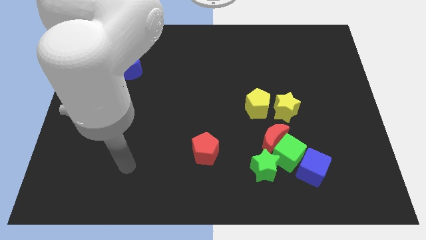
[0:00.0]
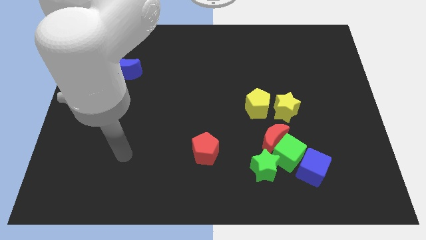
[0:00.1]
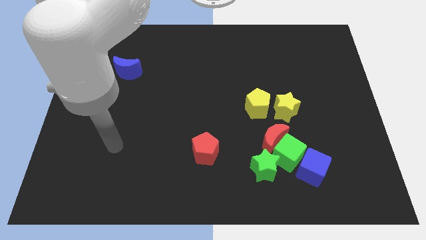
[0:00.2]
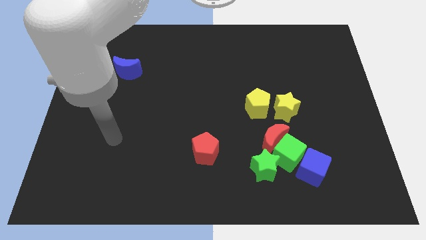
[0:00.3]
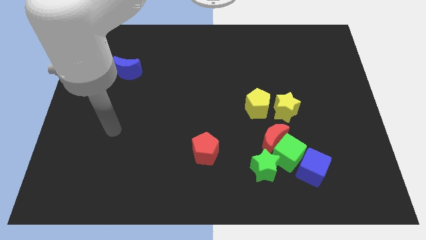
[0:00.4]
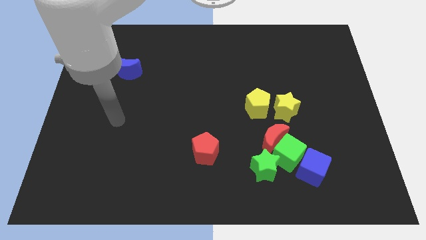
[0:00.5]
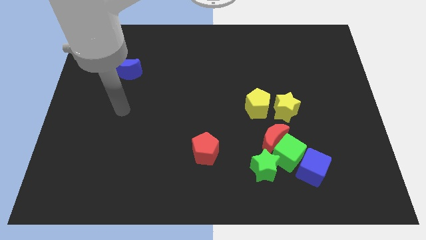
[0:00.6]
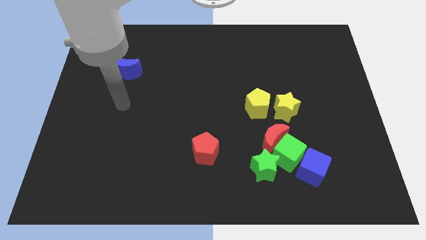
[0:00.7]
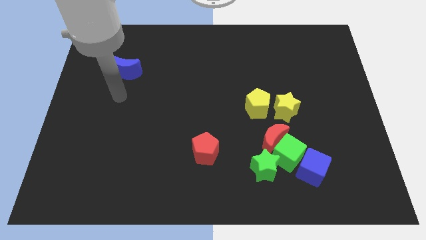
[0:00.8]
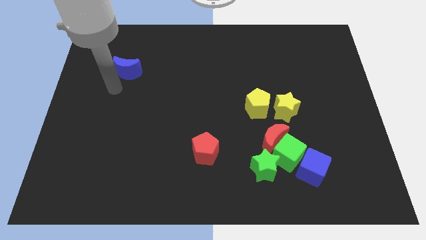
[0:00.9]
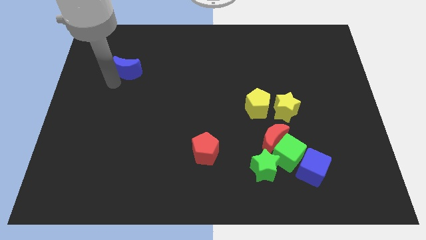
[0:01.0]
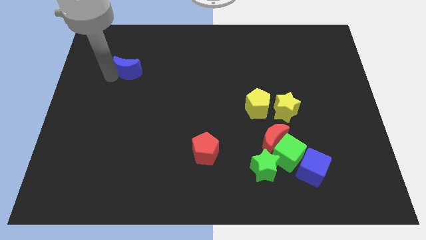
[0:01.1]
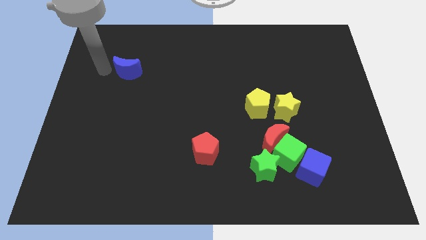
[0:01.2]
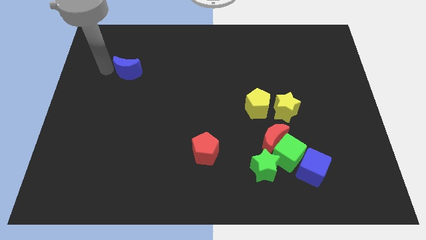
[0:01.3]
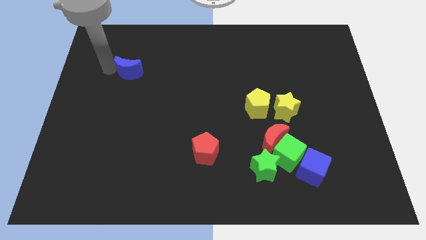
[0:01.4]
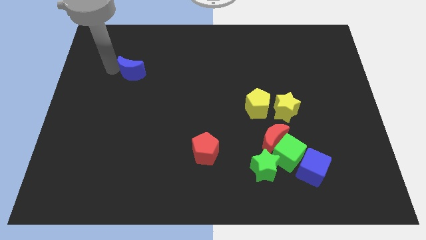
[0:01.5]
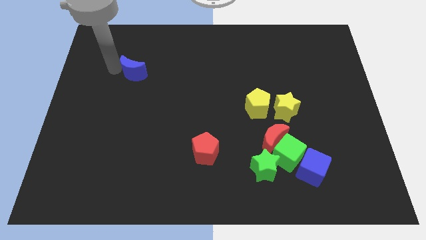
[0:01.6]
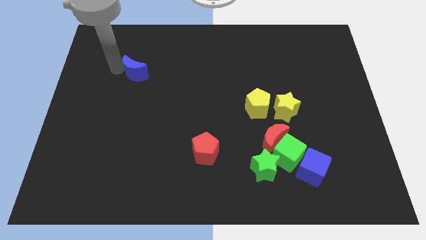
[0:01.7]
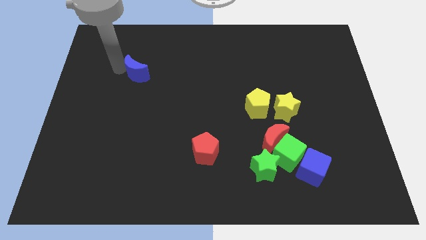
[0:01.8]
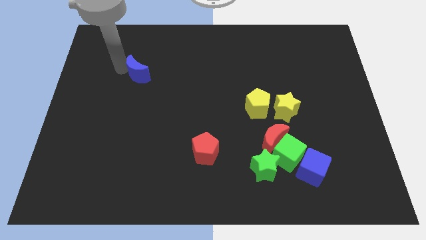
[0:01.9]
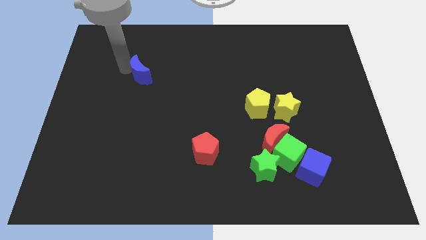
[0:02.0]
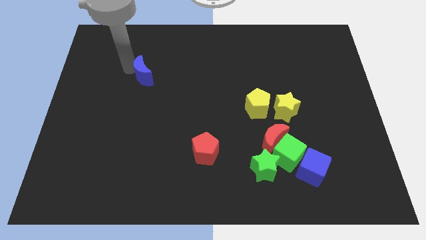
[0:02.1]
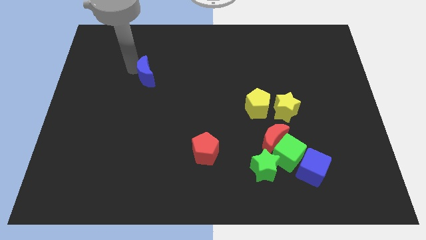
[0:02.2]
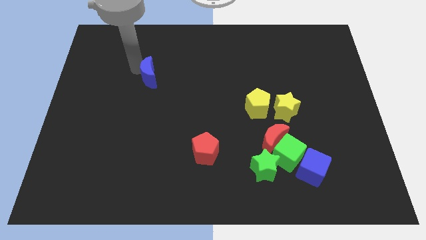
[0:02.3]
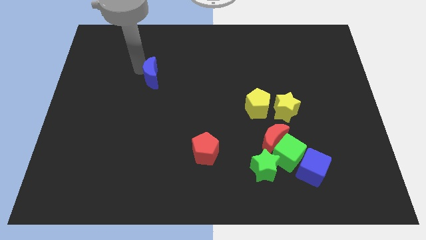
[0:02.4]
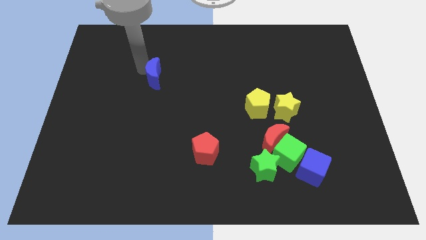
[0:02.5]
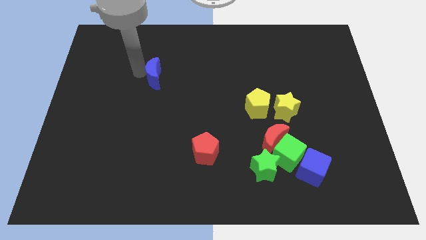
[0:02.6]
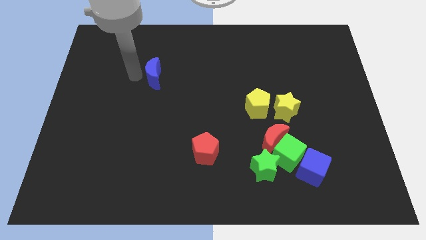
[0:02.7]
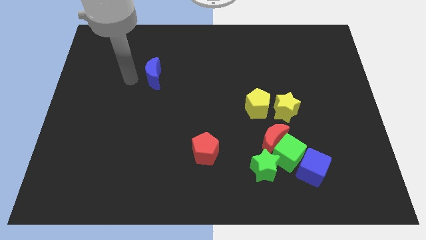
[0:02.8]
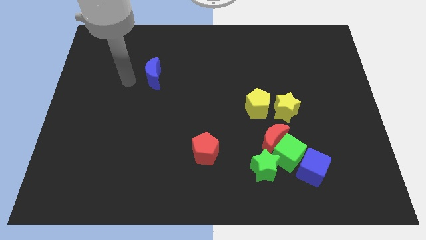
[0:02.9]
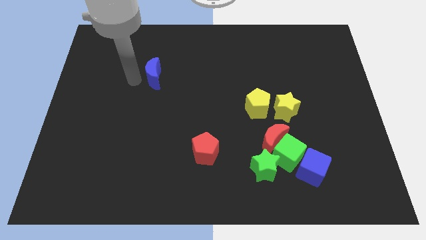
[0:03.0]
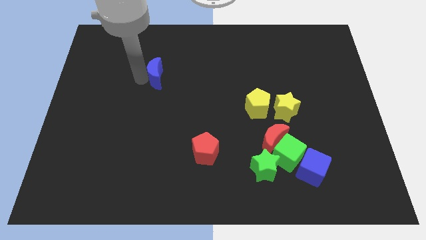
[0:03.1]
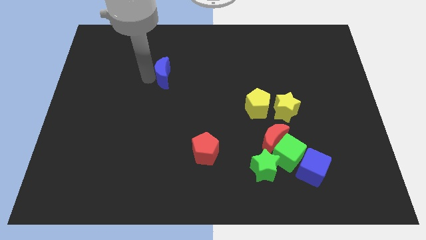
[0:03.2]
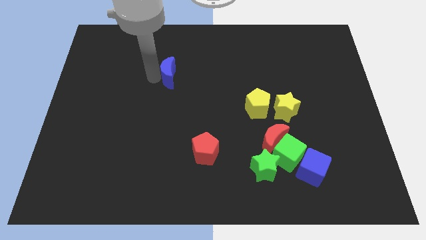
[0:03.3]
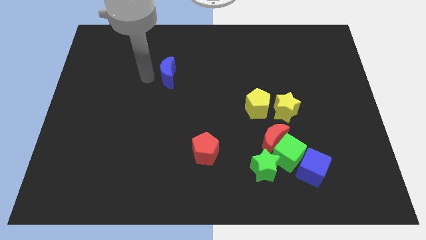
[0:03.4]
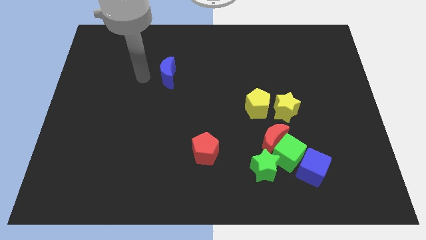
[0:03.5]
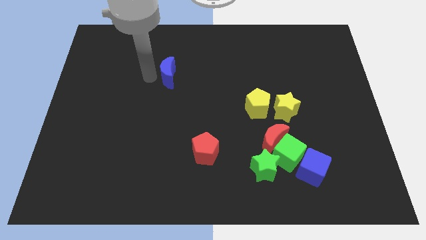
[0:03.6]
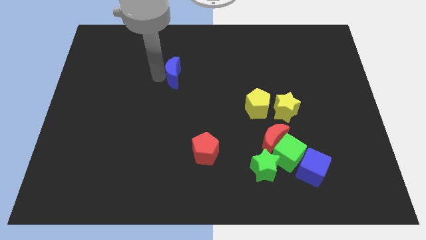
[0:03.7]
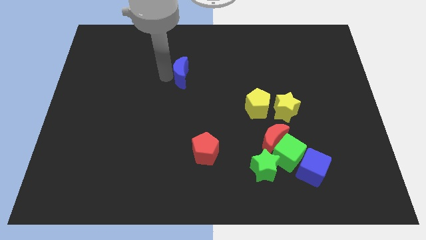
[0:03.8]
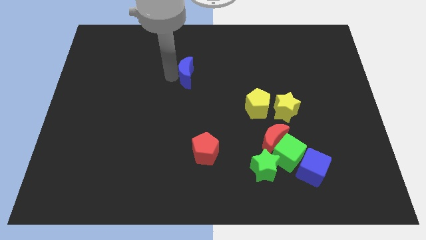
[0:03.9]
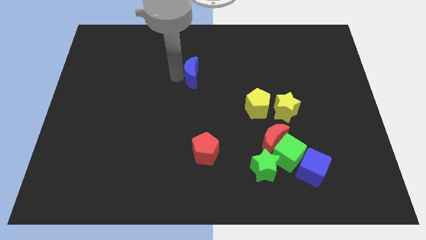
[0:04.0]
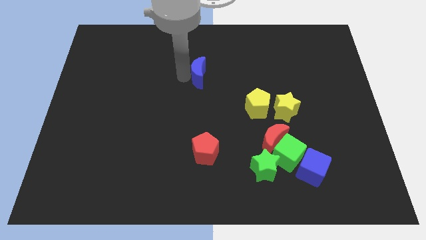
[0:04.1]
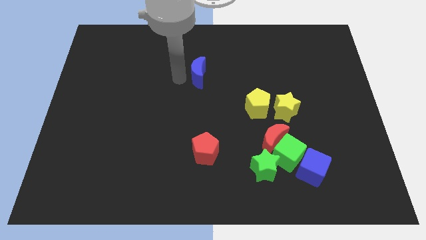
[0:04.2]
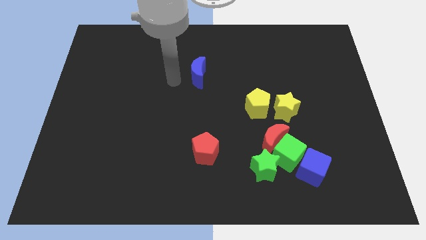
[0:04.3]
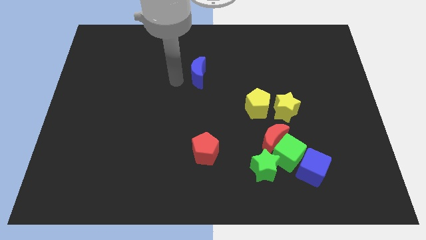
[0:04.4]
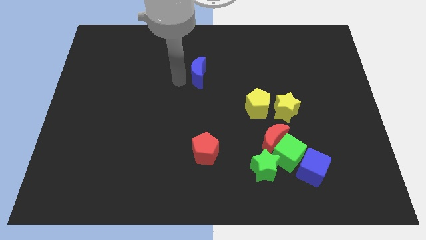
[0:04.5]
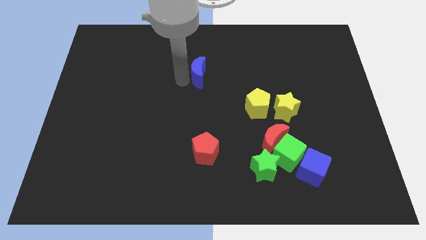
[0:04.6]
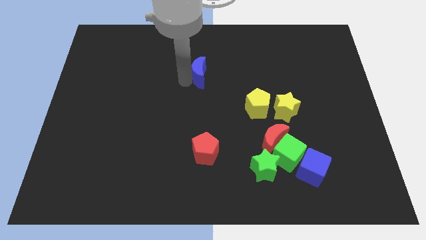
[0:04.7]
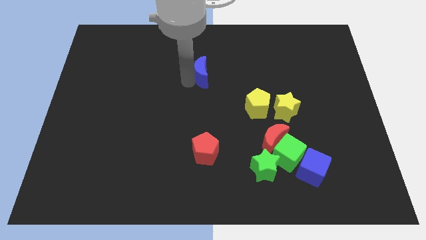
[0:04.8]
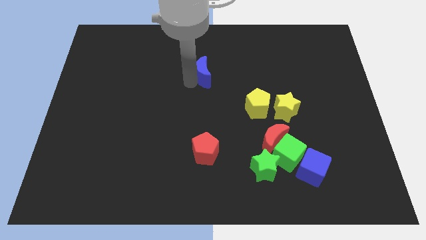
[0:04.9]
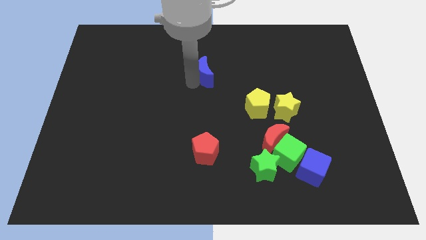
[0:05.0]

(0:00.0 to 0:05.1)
push the blue moon right

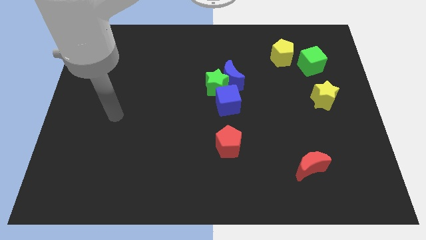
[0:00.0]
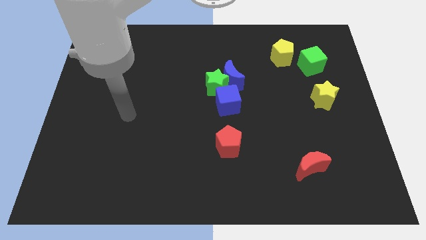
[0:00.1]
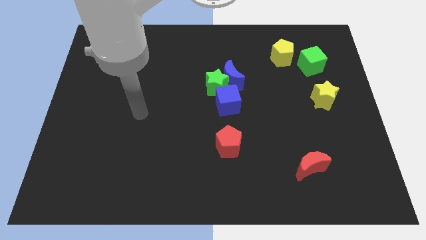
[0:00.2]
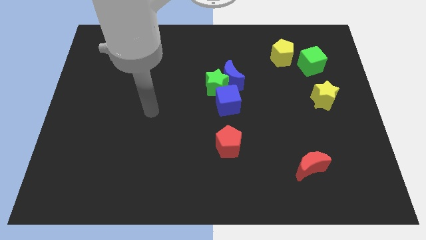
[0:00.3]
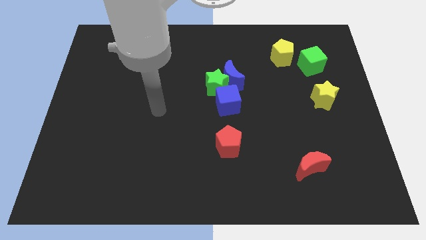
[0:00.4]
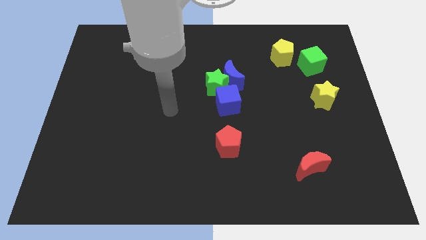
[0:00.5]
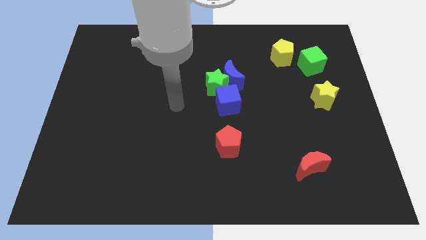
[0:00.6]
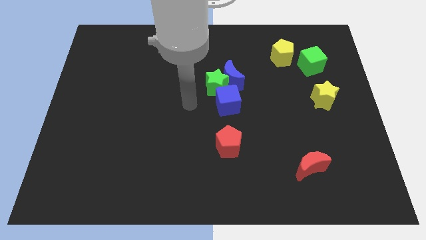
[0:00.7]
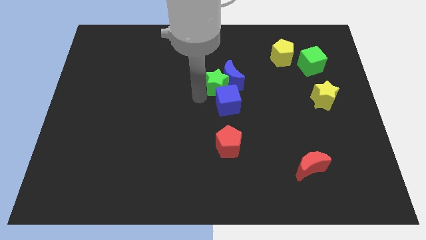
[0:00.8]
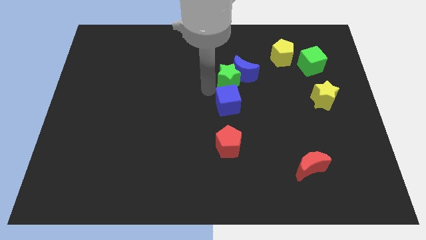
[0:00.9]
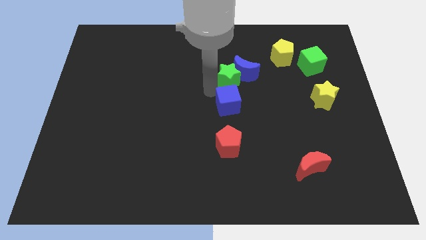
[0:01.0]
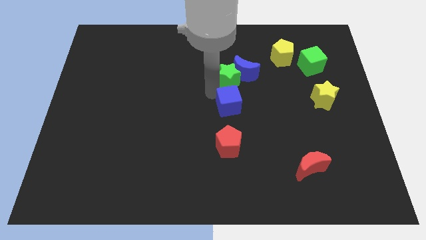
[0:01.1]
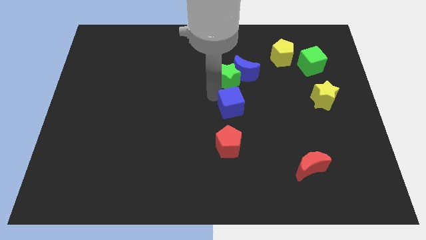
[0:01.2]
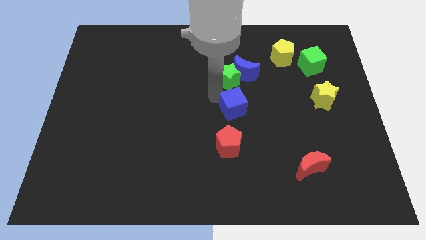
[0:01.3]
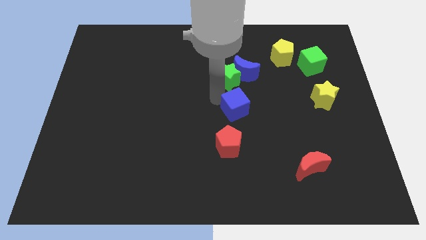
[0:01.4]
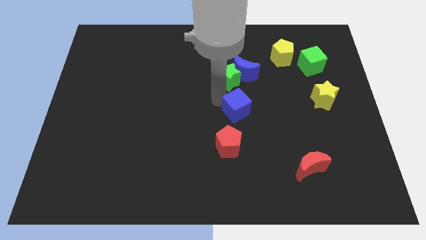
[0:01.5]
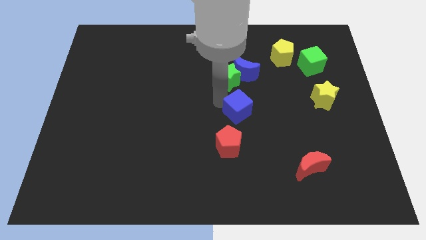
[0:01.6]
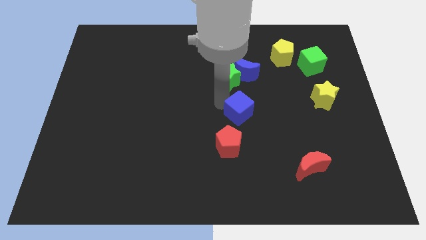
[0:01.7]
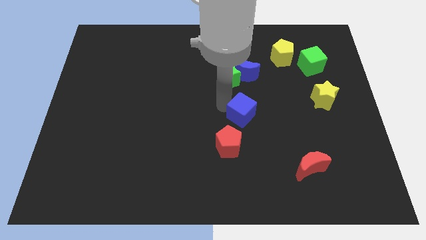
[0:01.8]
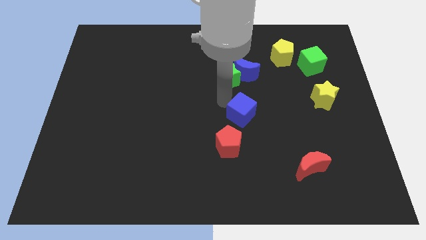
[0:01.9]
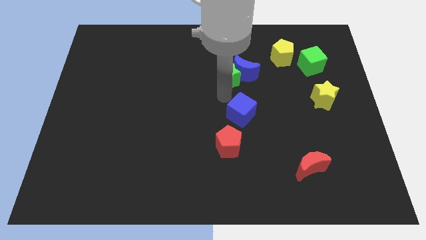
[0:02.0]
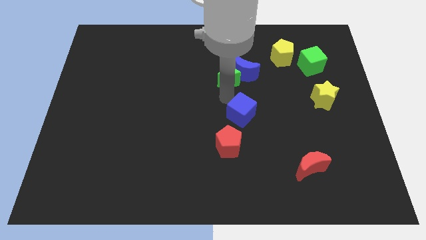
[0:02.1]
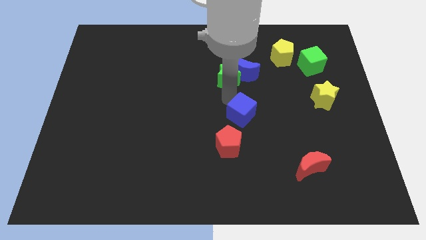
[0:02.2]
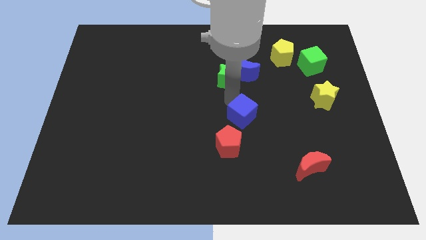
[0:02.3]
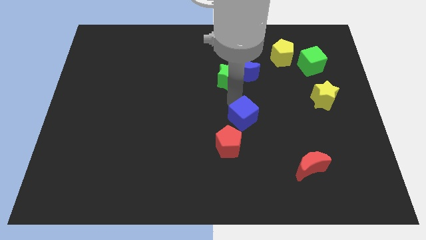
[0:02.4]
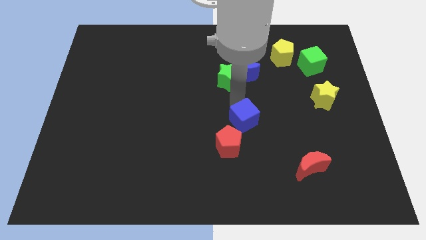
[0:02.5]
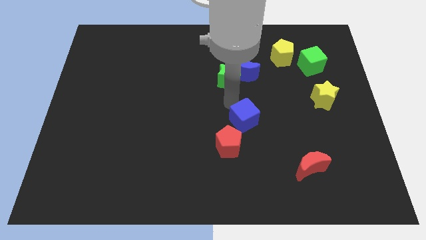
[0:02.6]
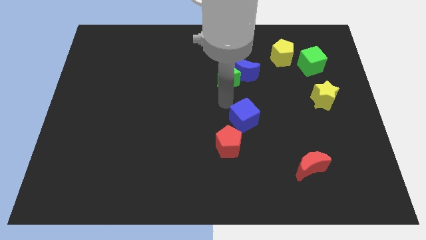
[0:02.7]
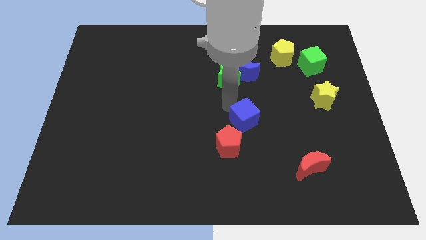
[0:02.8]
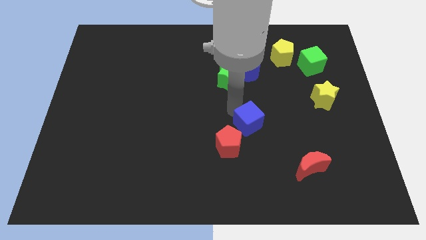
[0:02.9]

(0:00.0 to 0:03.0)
slide the blue cube a little downwards and right diagonally

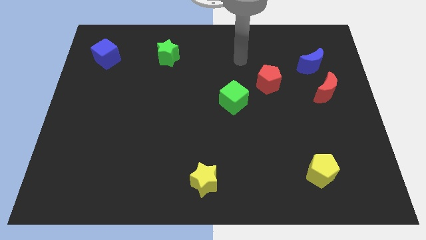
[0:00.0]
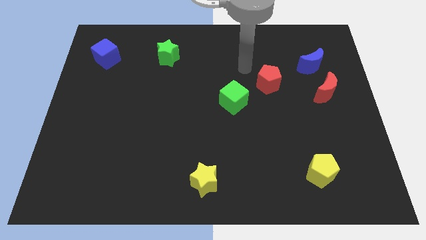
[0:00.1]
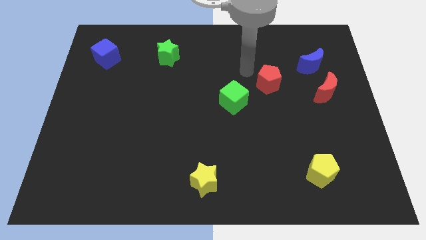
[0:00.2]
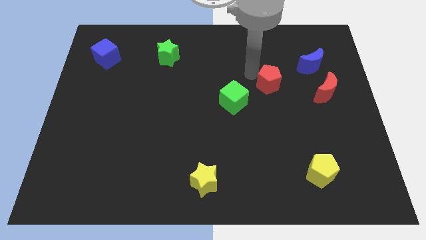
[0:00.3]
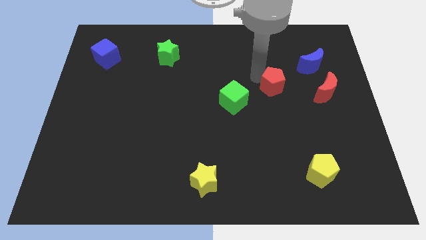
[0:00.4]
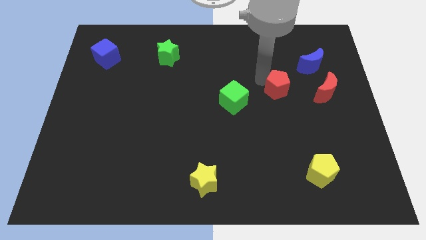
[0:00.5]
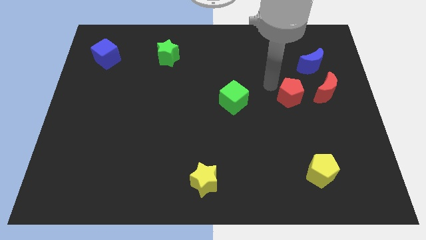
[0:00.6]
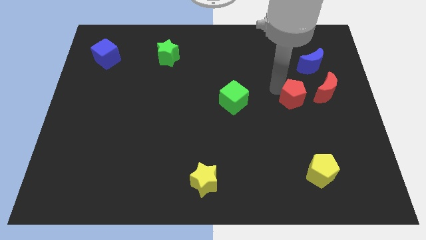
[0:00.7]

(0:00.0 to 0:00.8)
slide the red pentagon diagonally down and to the right slightly
